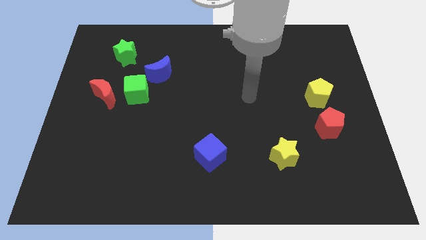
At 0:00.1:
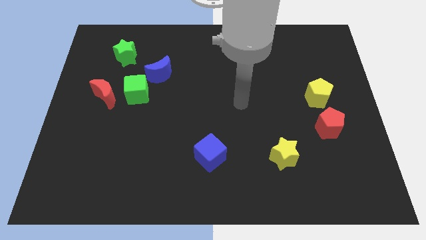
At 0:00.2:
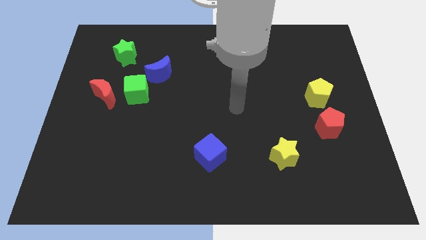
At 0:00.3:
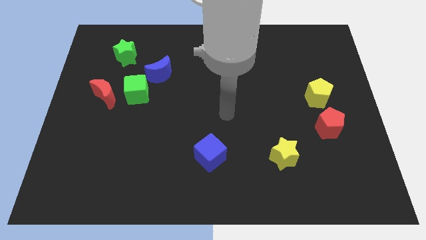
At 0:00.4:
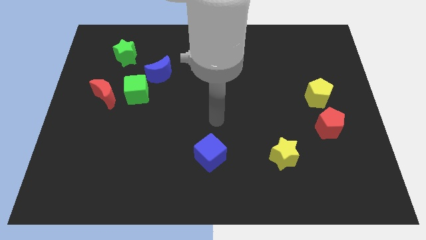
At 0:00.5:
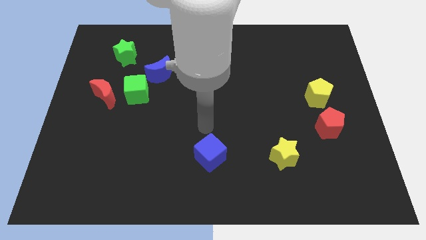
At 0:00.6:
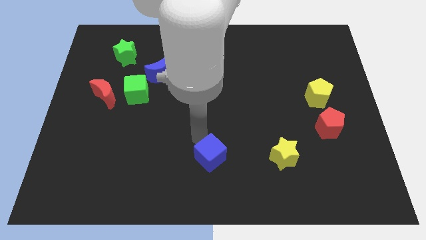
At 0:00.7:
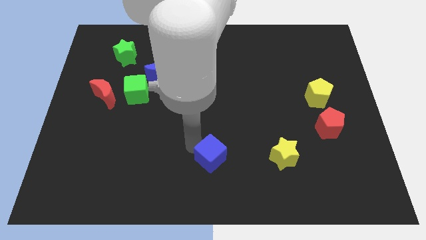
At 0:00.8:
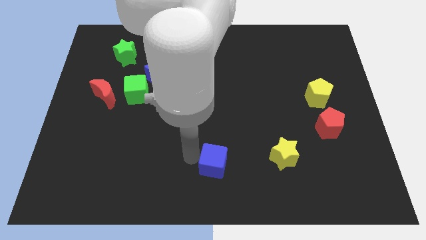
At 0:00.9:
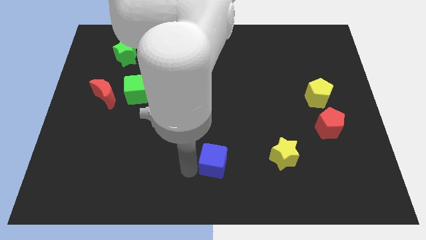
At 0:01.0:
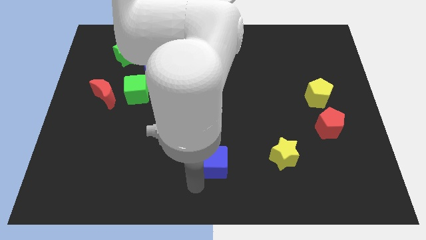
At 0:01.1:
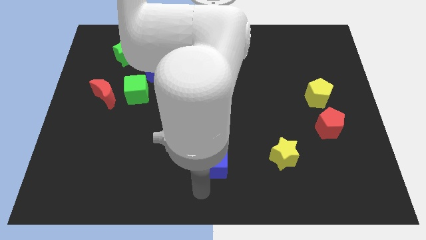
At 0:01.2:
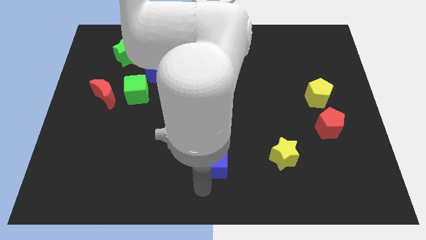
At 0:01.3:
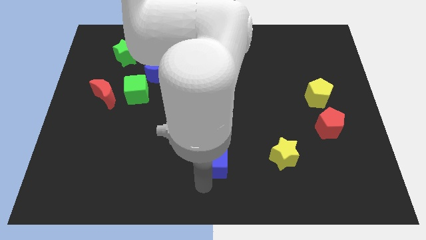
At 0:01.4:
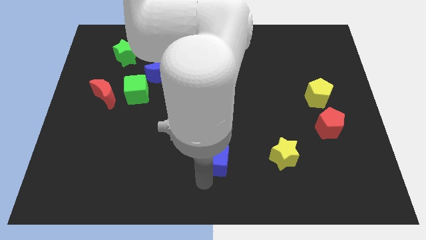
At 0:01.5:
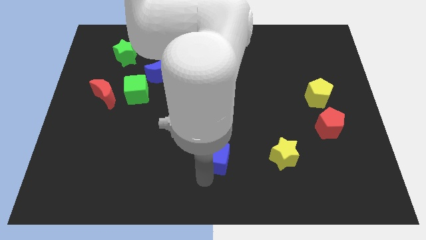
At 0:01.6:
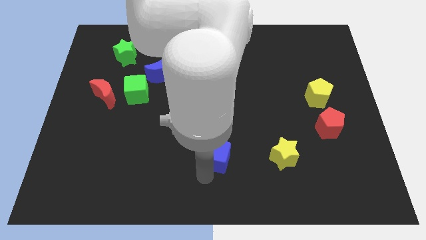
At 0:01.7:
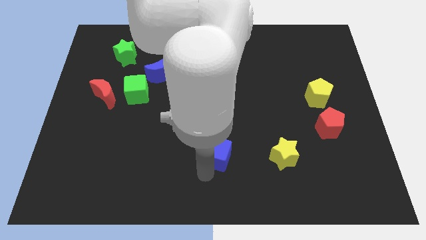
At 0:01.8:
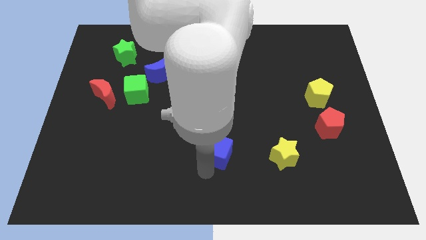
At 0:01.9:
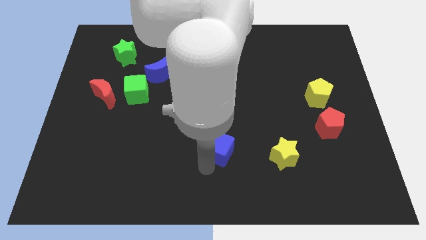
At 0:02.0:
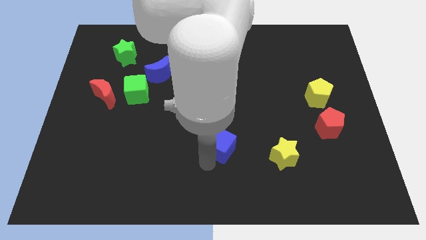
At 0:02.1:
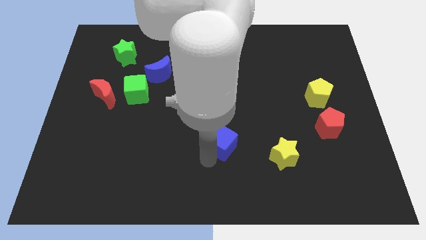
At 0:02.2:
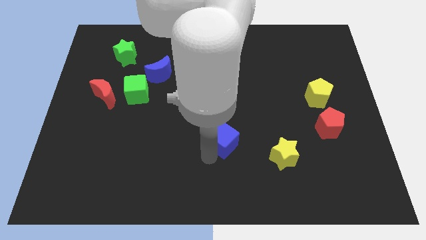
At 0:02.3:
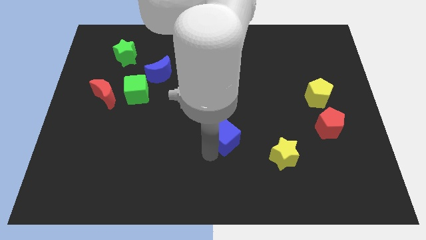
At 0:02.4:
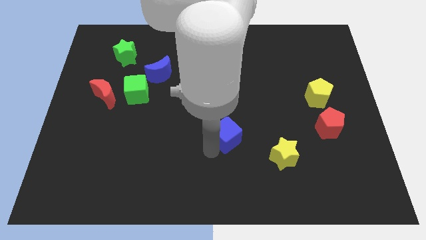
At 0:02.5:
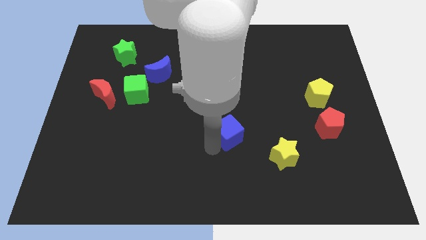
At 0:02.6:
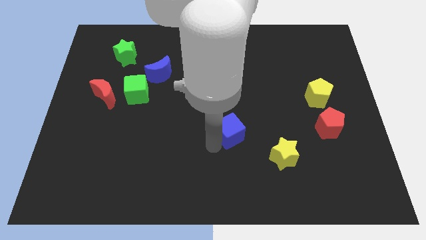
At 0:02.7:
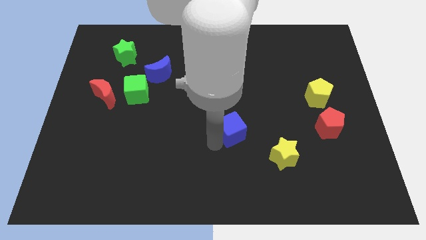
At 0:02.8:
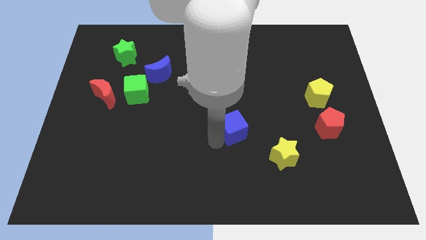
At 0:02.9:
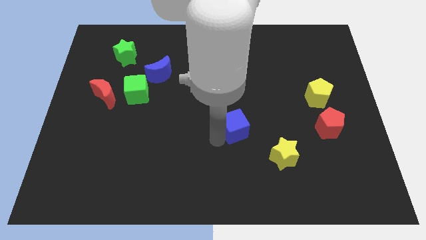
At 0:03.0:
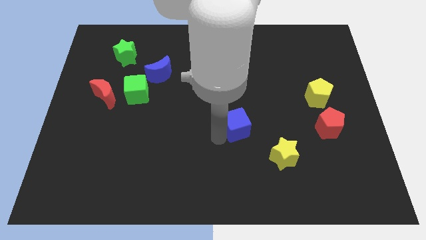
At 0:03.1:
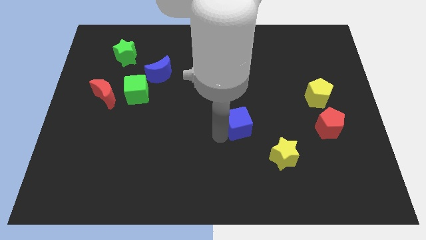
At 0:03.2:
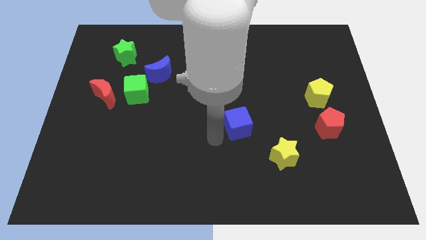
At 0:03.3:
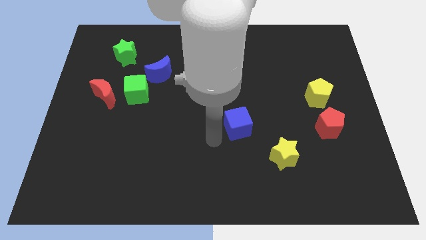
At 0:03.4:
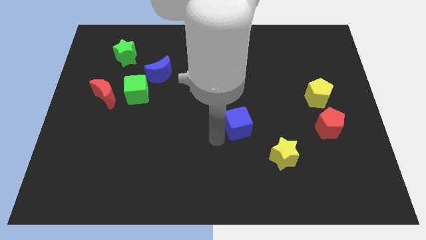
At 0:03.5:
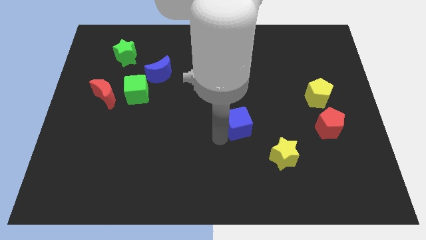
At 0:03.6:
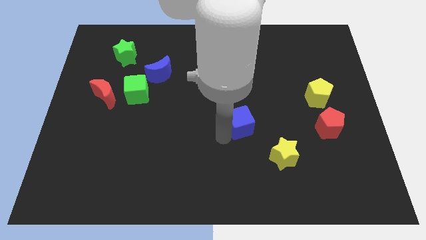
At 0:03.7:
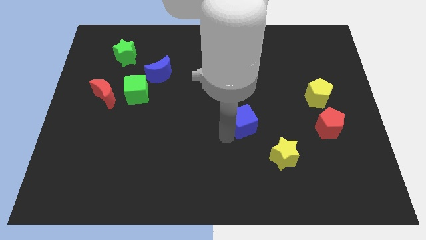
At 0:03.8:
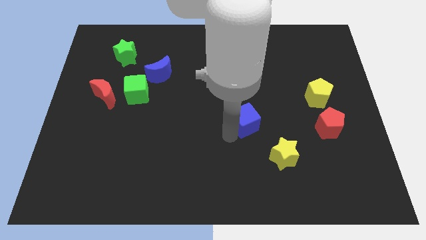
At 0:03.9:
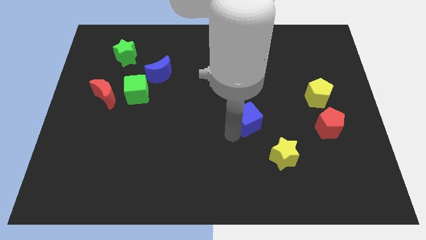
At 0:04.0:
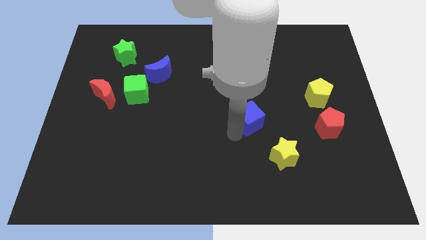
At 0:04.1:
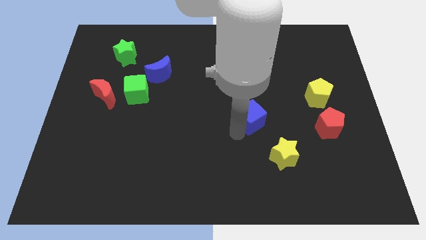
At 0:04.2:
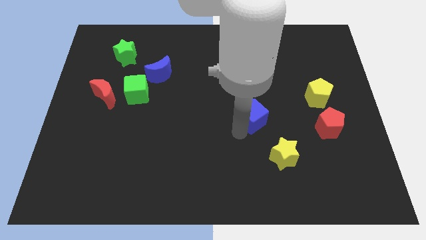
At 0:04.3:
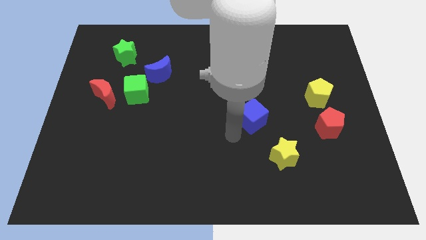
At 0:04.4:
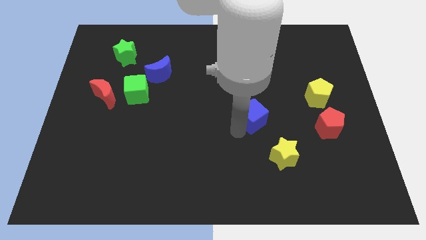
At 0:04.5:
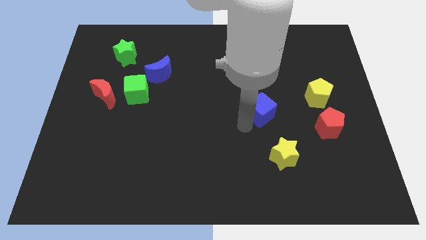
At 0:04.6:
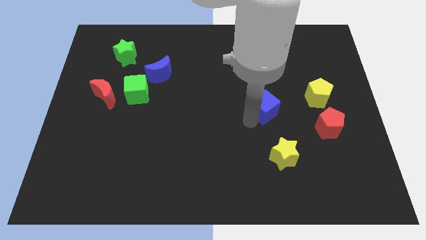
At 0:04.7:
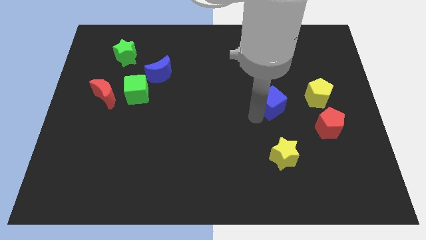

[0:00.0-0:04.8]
push the blue cube upwards and then to the right

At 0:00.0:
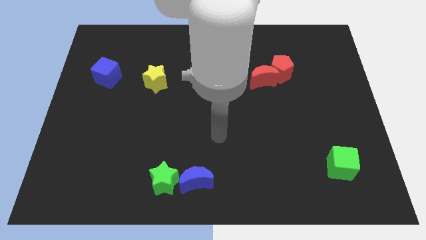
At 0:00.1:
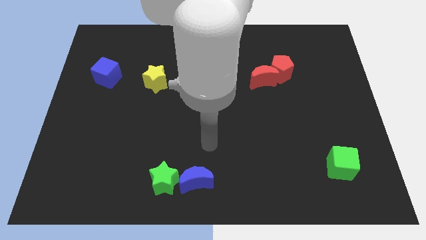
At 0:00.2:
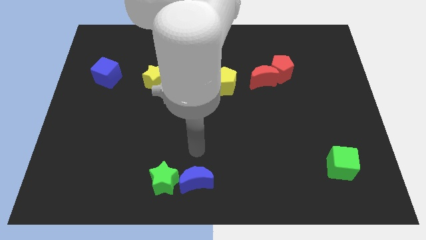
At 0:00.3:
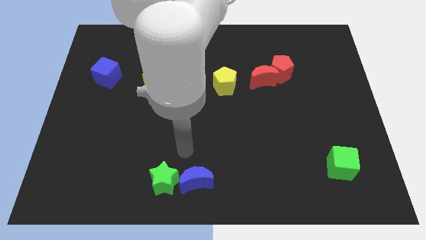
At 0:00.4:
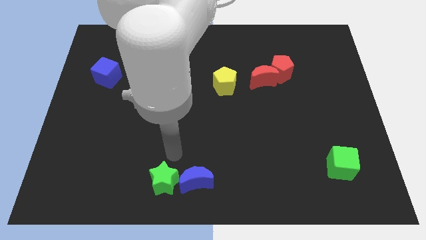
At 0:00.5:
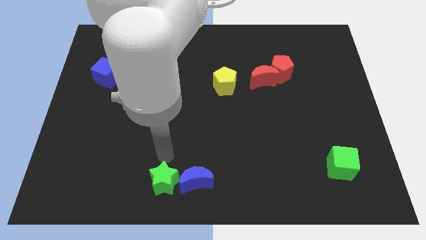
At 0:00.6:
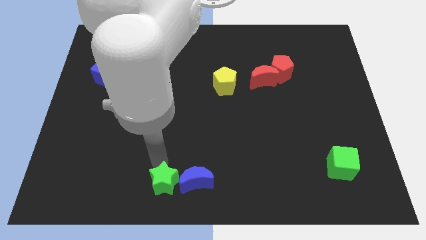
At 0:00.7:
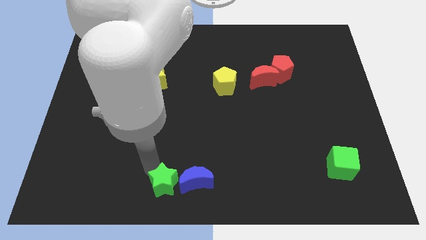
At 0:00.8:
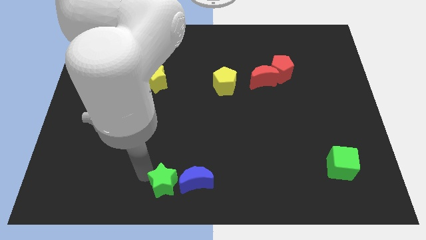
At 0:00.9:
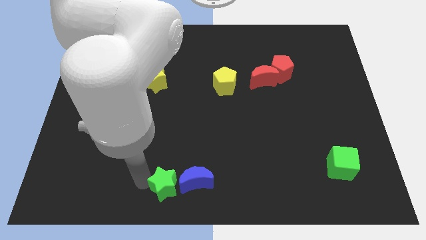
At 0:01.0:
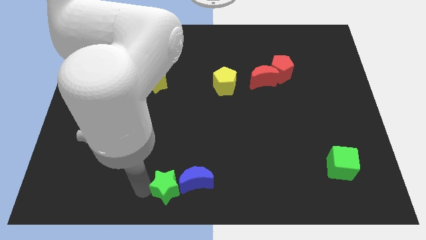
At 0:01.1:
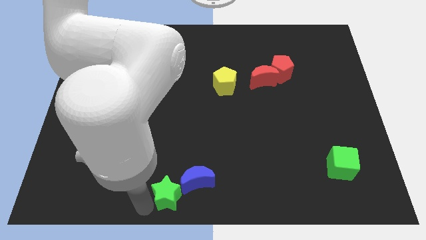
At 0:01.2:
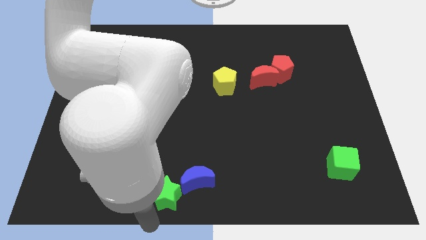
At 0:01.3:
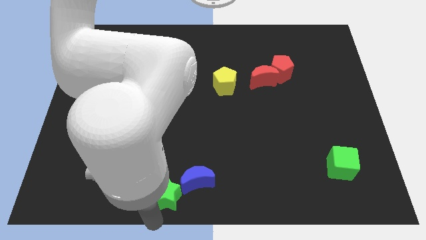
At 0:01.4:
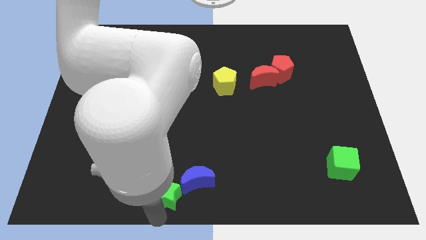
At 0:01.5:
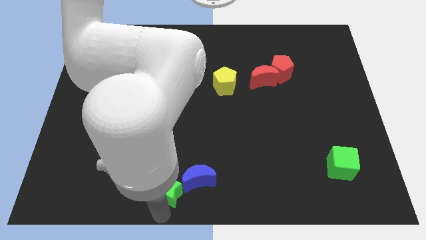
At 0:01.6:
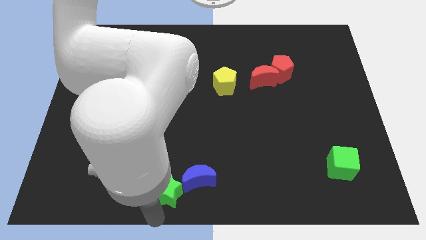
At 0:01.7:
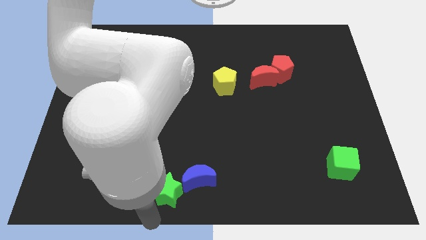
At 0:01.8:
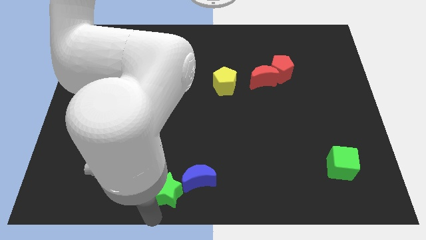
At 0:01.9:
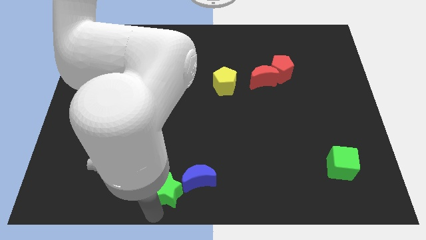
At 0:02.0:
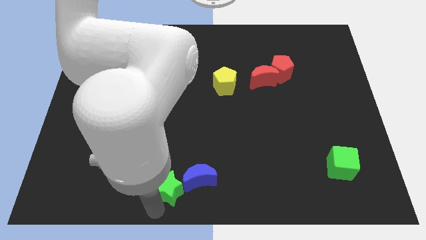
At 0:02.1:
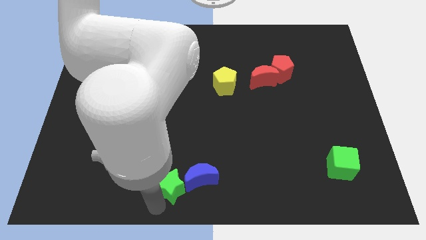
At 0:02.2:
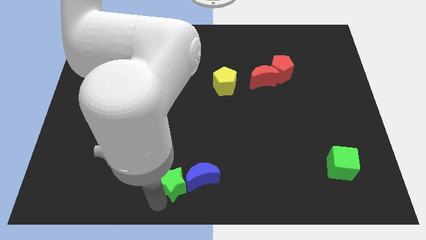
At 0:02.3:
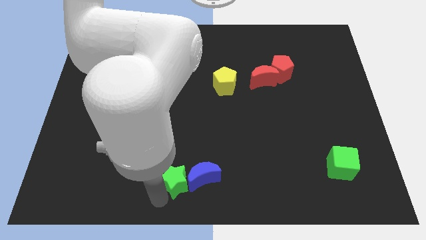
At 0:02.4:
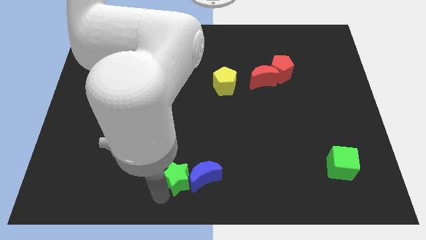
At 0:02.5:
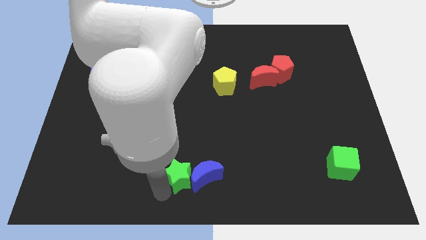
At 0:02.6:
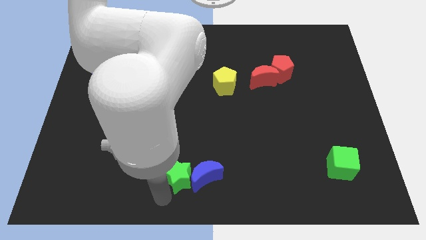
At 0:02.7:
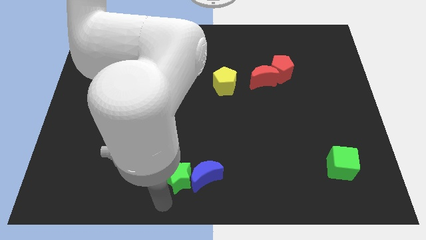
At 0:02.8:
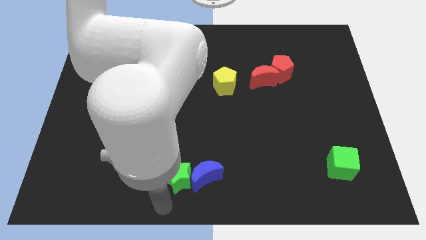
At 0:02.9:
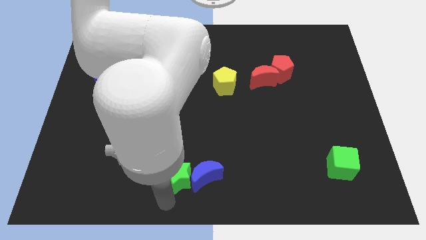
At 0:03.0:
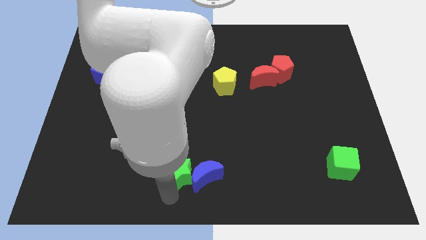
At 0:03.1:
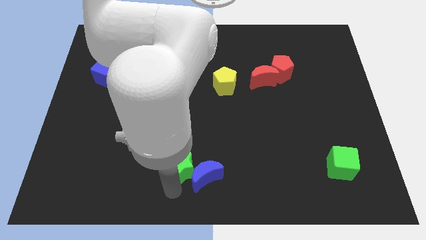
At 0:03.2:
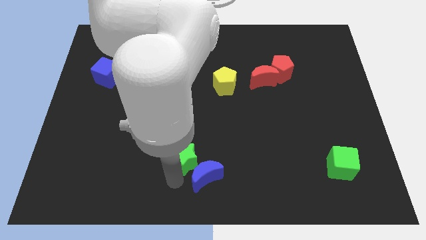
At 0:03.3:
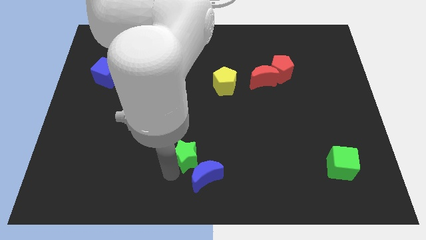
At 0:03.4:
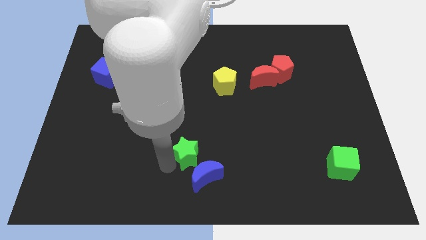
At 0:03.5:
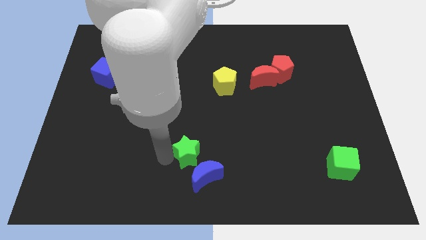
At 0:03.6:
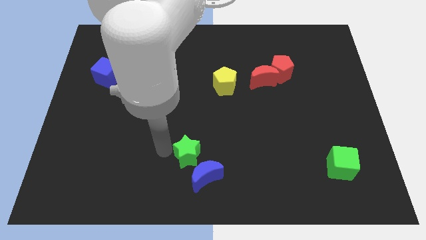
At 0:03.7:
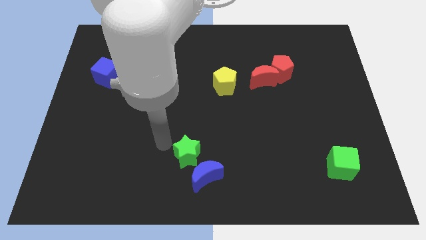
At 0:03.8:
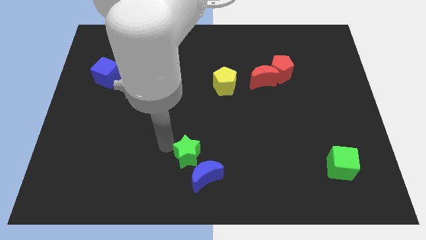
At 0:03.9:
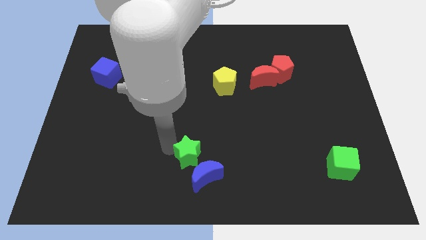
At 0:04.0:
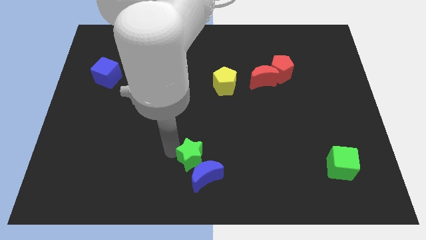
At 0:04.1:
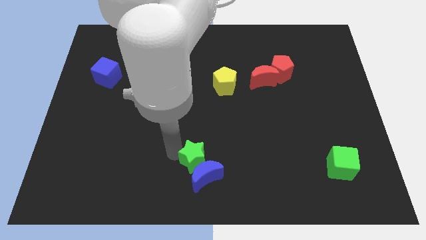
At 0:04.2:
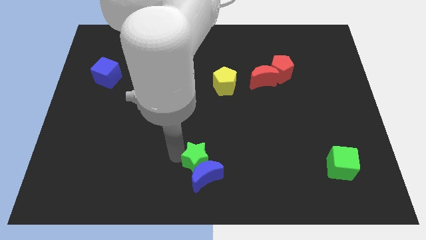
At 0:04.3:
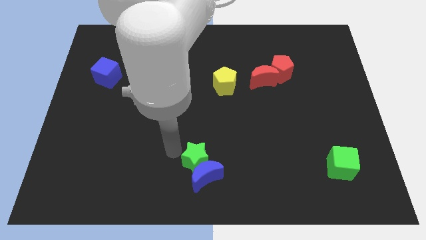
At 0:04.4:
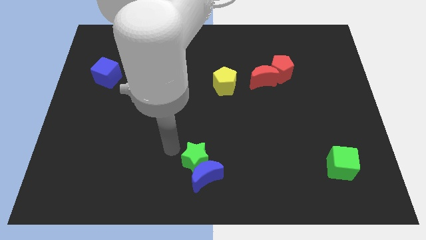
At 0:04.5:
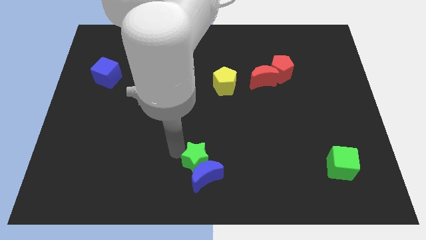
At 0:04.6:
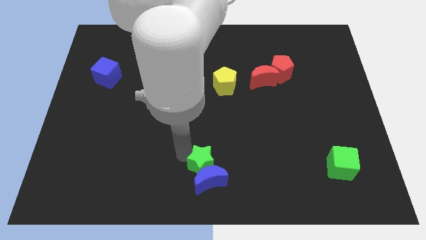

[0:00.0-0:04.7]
move the green star slightly right
